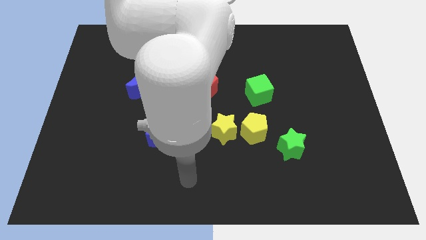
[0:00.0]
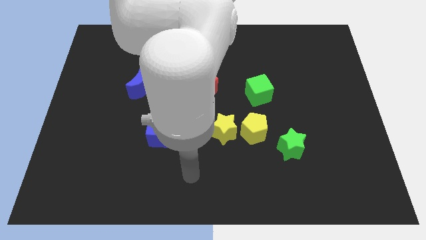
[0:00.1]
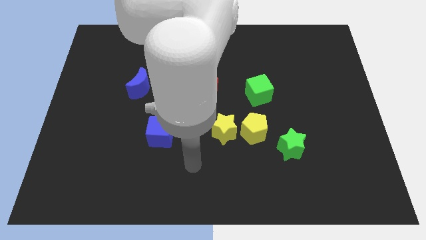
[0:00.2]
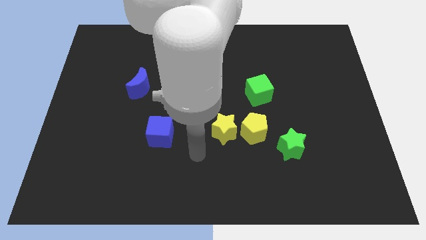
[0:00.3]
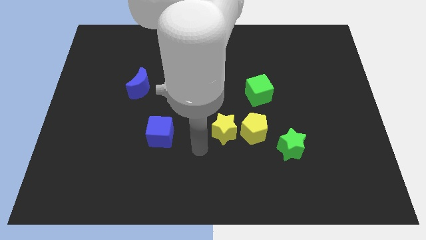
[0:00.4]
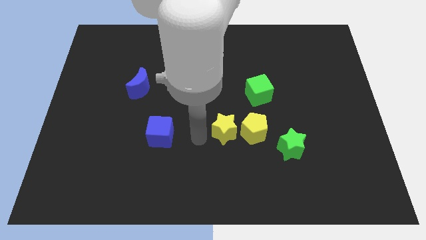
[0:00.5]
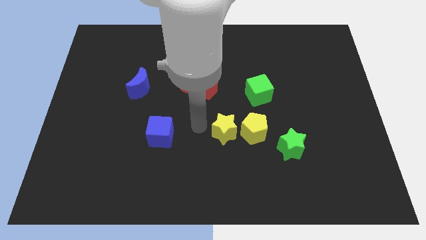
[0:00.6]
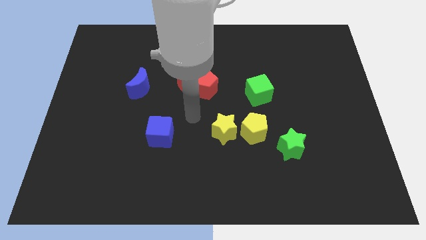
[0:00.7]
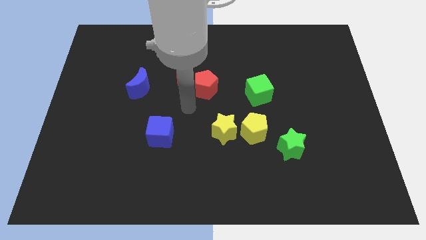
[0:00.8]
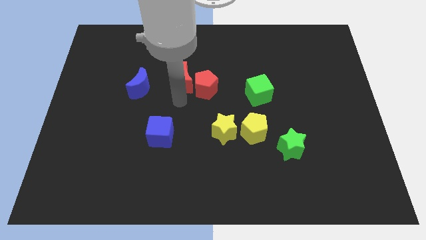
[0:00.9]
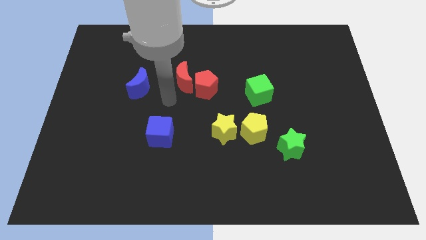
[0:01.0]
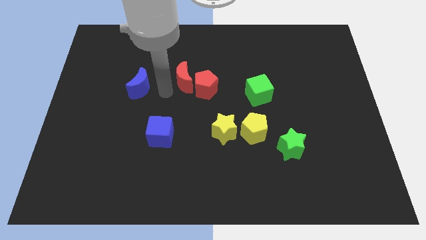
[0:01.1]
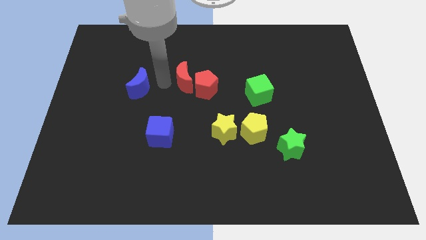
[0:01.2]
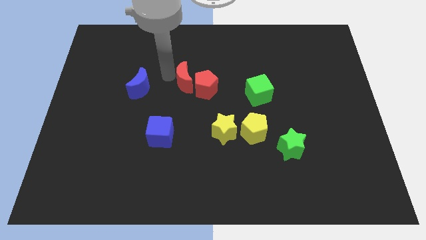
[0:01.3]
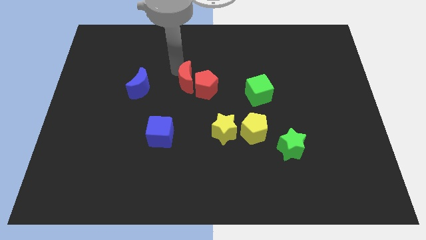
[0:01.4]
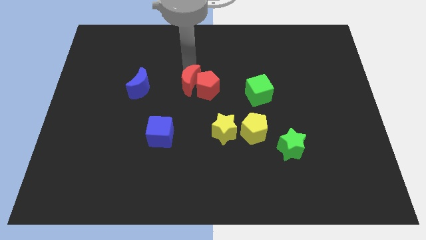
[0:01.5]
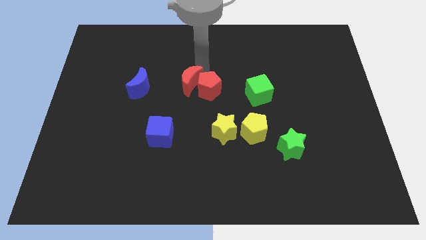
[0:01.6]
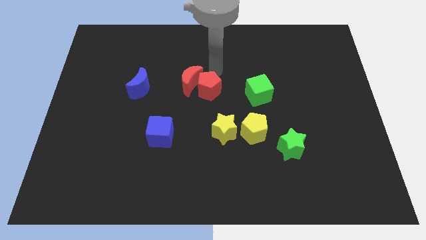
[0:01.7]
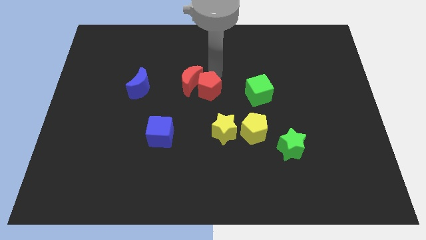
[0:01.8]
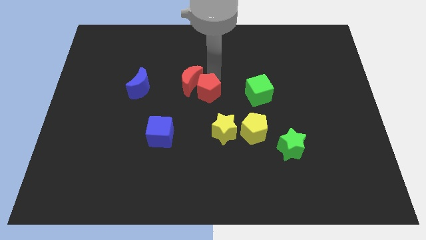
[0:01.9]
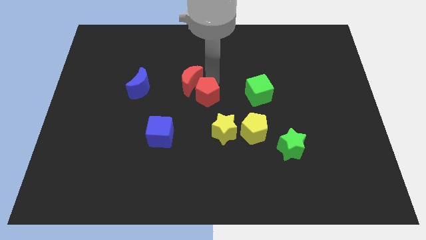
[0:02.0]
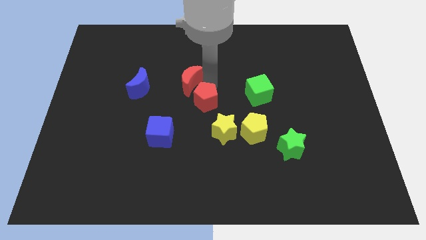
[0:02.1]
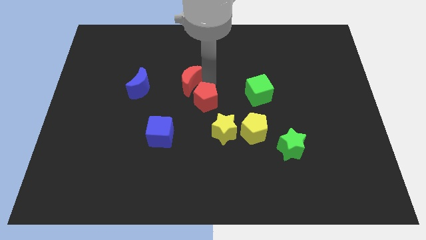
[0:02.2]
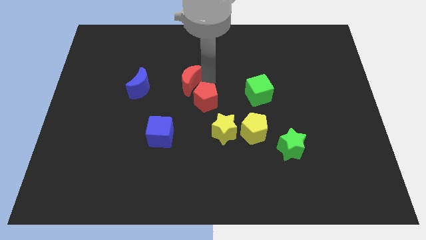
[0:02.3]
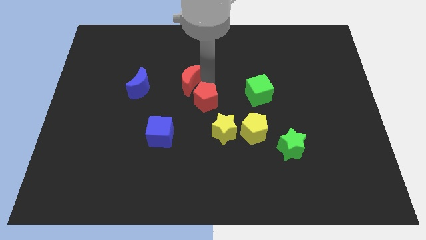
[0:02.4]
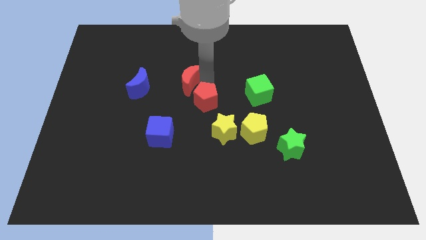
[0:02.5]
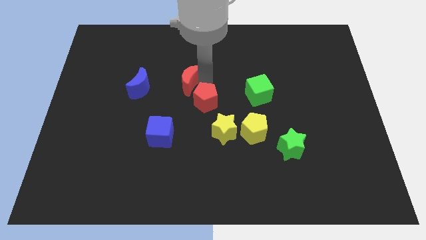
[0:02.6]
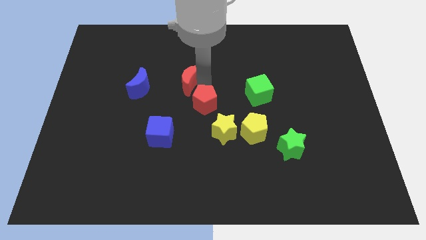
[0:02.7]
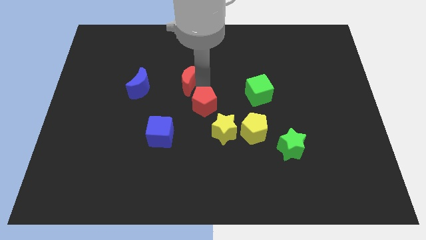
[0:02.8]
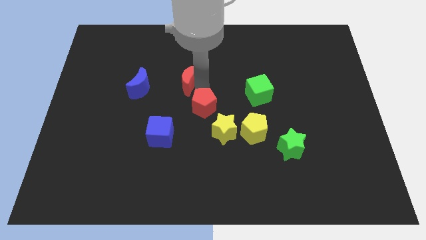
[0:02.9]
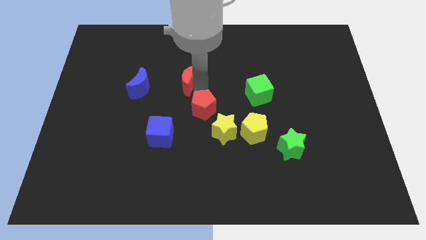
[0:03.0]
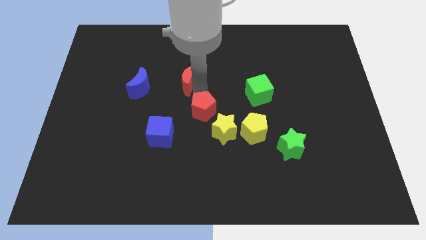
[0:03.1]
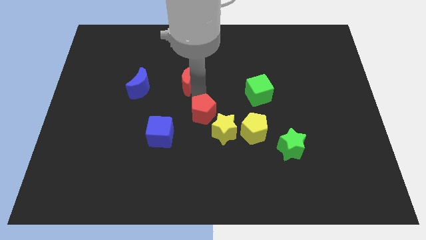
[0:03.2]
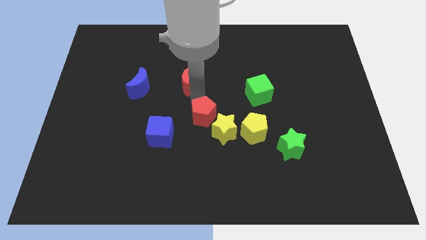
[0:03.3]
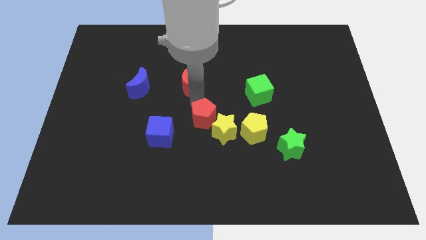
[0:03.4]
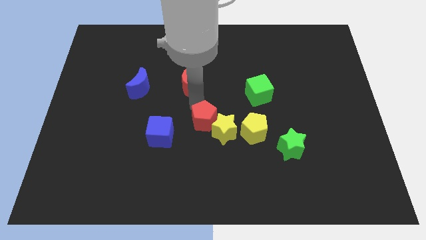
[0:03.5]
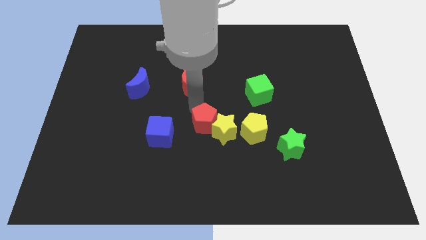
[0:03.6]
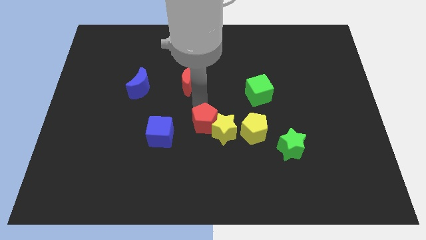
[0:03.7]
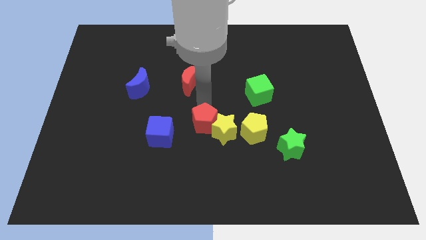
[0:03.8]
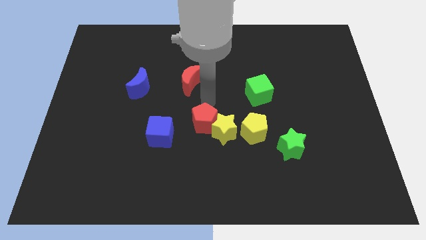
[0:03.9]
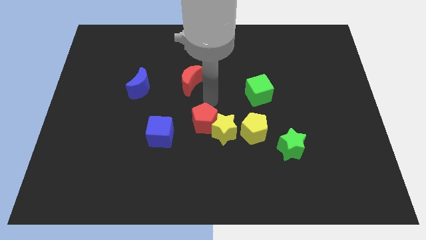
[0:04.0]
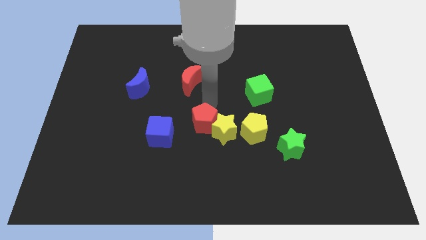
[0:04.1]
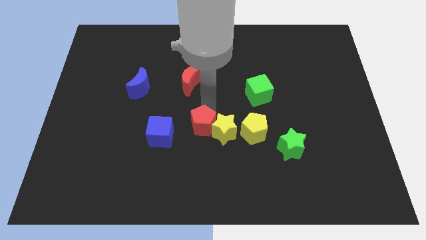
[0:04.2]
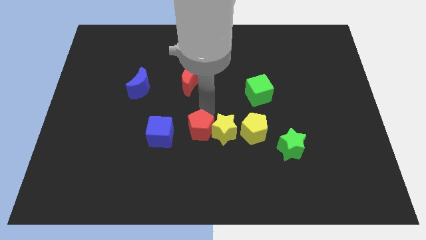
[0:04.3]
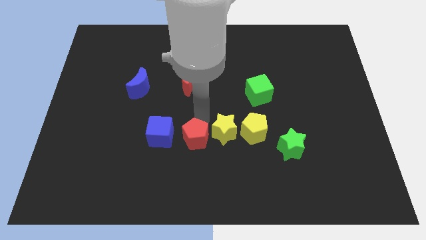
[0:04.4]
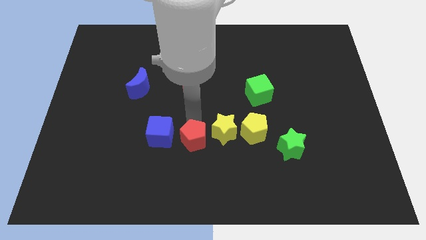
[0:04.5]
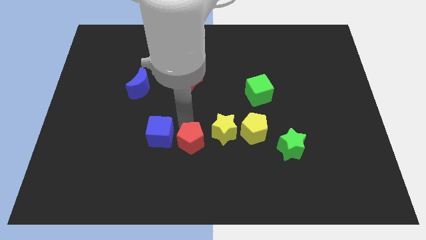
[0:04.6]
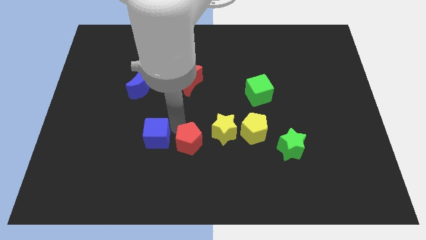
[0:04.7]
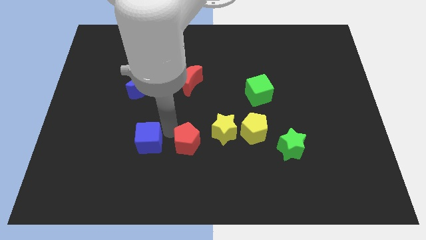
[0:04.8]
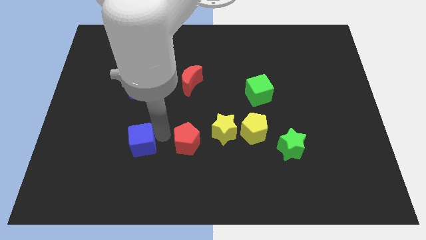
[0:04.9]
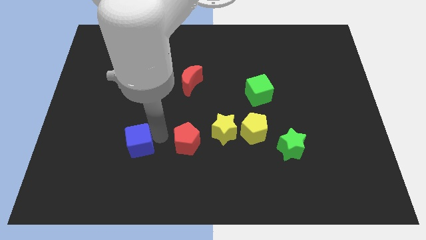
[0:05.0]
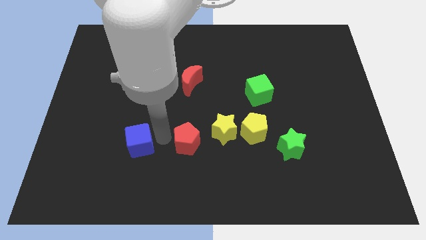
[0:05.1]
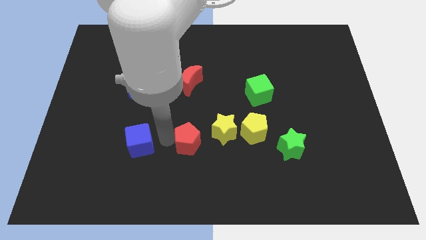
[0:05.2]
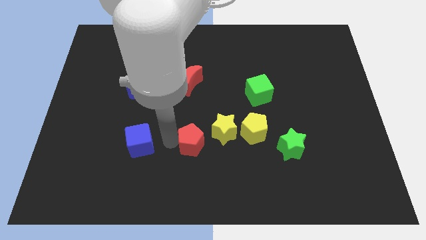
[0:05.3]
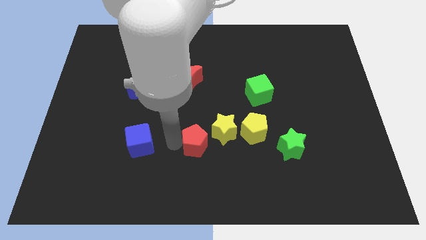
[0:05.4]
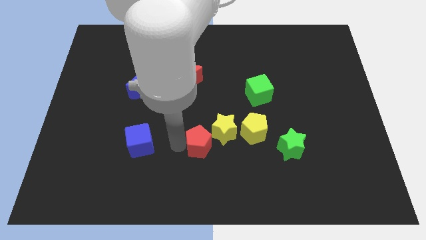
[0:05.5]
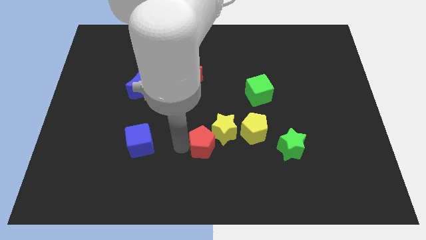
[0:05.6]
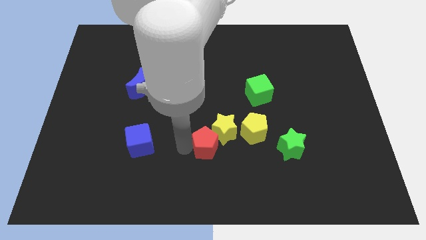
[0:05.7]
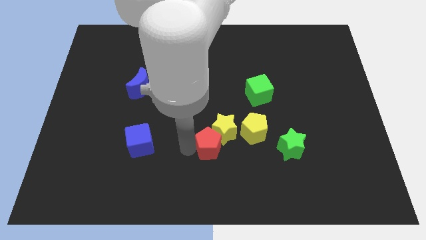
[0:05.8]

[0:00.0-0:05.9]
put the red pentagon to the bottom left of the yellow pentagon

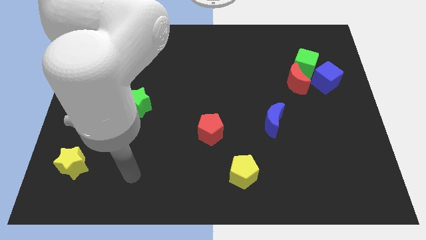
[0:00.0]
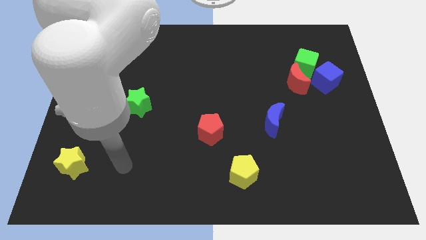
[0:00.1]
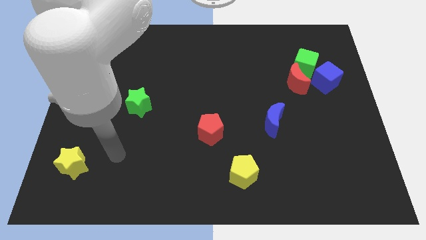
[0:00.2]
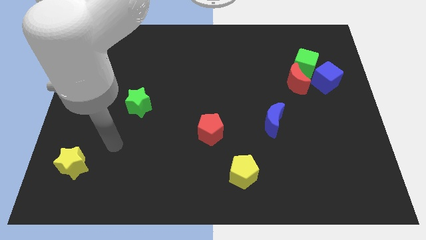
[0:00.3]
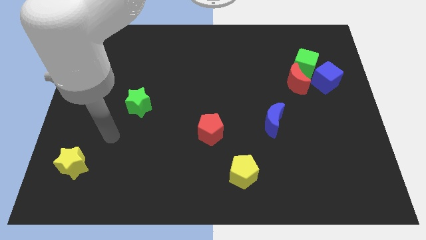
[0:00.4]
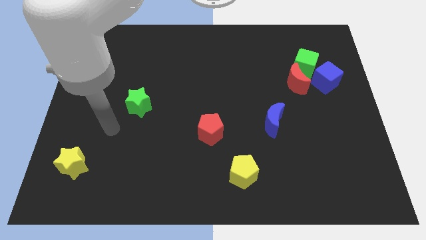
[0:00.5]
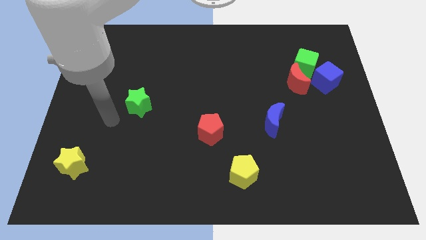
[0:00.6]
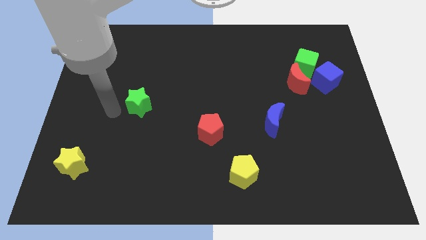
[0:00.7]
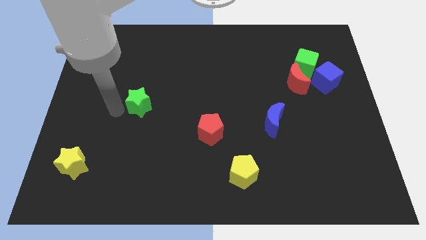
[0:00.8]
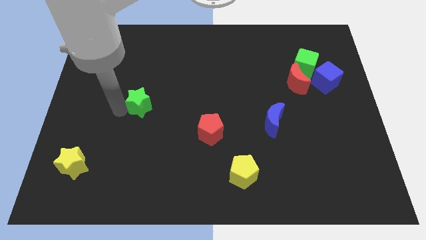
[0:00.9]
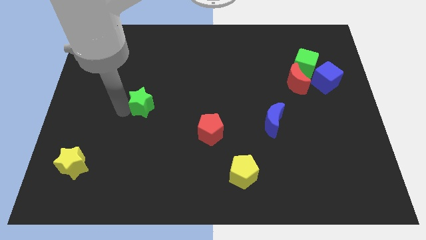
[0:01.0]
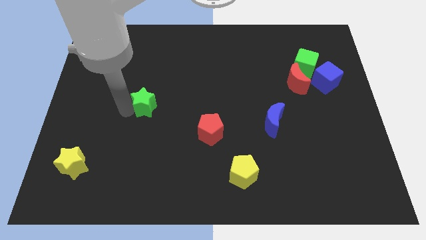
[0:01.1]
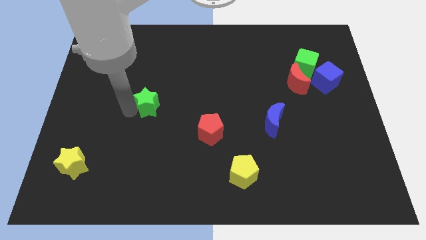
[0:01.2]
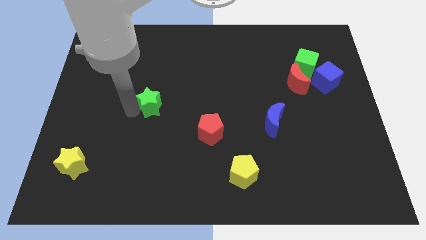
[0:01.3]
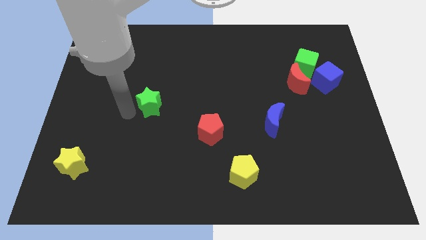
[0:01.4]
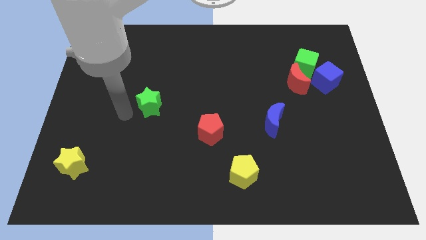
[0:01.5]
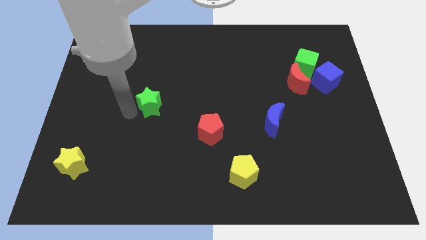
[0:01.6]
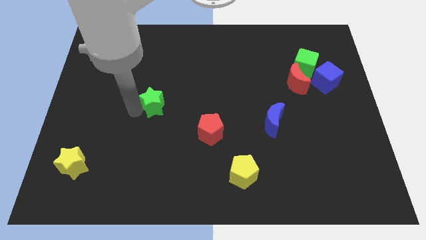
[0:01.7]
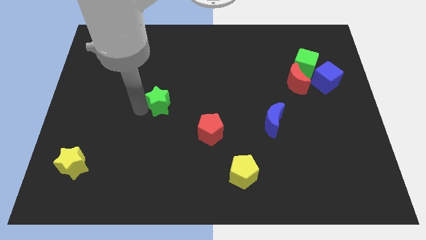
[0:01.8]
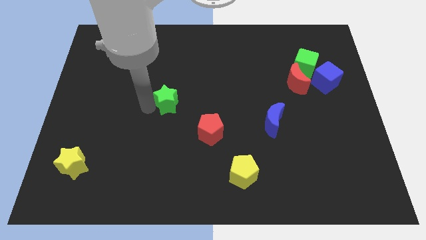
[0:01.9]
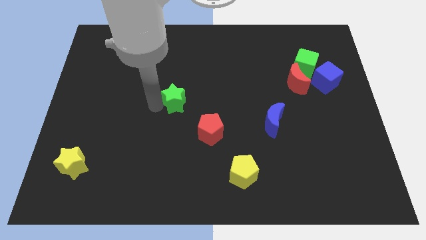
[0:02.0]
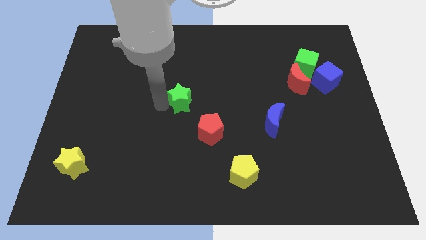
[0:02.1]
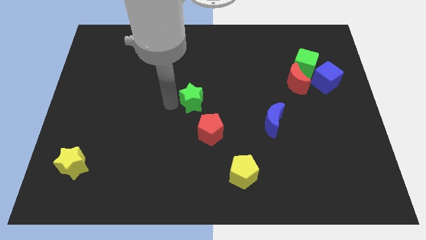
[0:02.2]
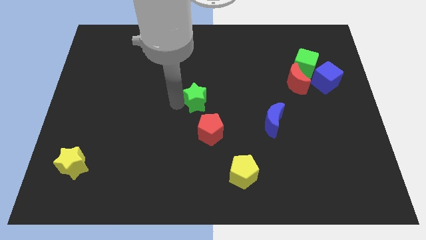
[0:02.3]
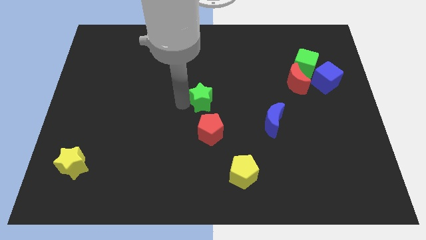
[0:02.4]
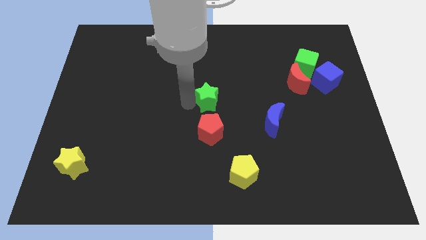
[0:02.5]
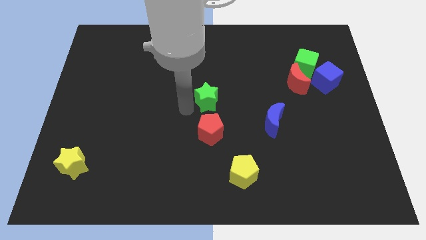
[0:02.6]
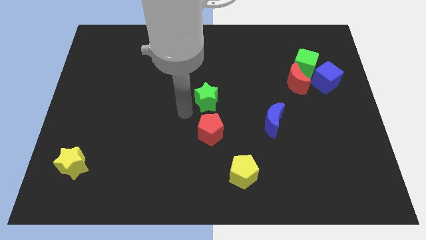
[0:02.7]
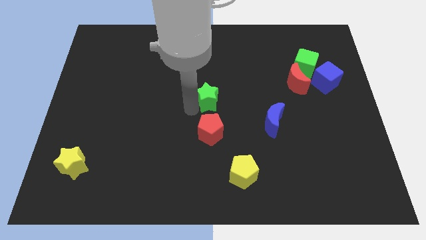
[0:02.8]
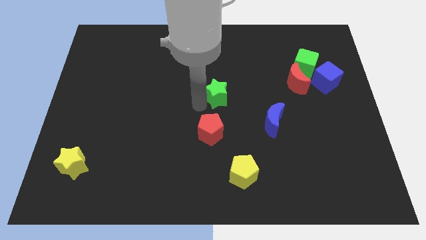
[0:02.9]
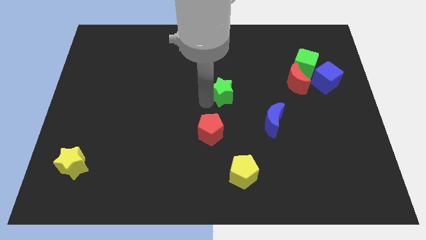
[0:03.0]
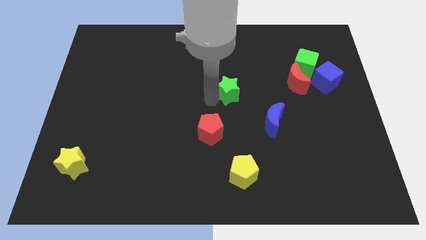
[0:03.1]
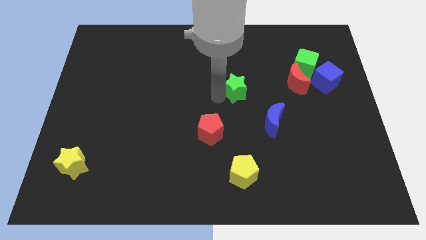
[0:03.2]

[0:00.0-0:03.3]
put the green star to the left of the red moon
